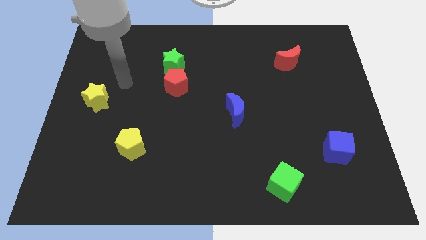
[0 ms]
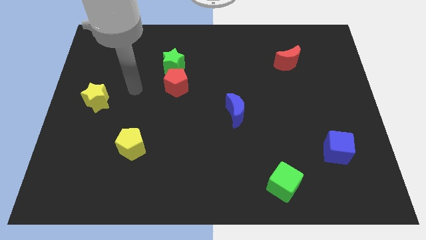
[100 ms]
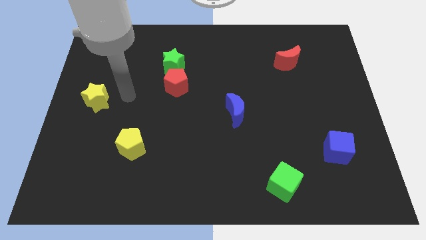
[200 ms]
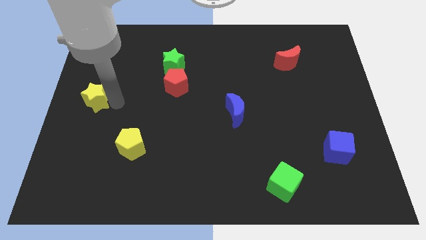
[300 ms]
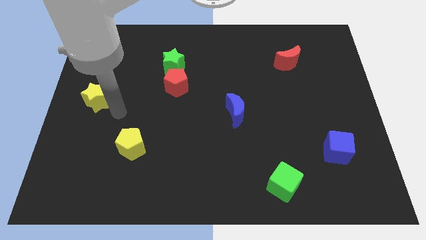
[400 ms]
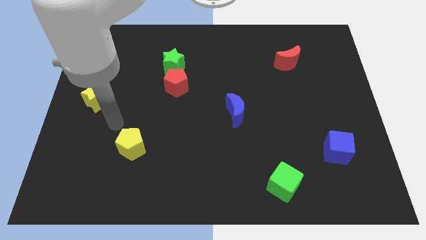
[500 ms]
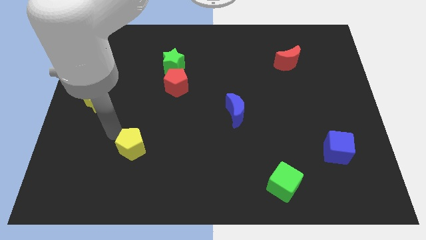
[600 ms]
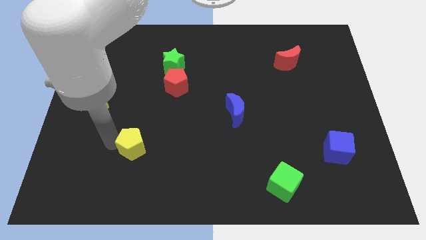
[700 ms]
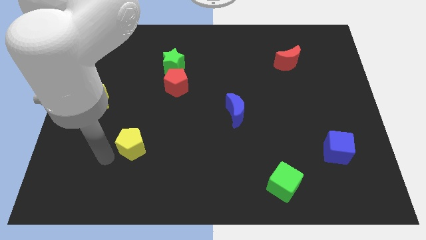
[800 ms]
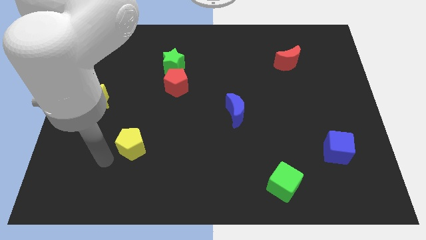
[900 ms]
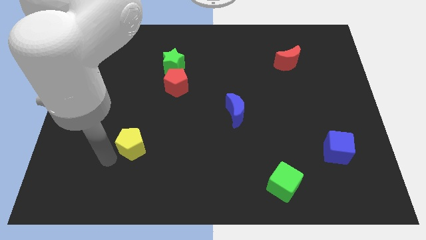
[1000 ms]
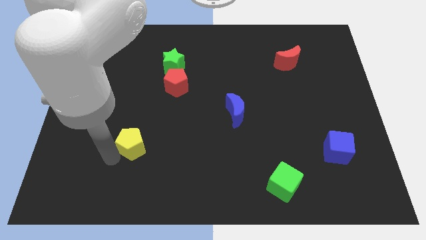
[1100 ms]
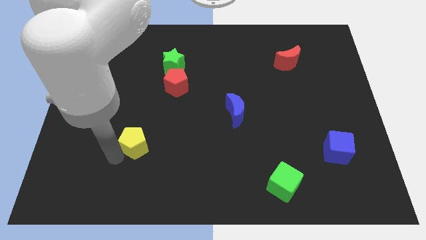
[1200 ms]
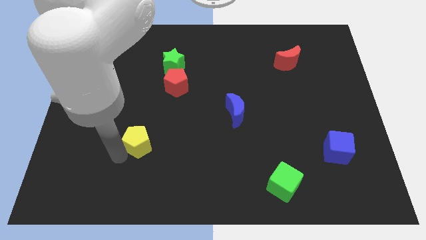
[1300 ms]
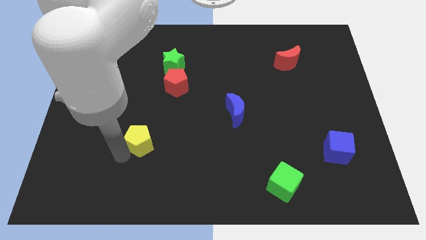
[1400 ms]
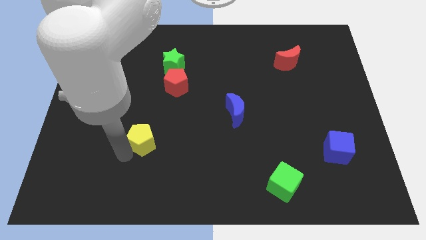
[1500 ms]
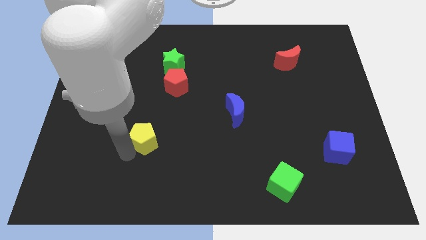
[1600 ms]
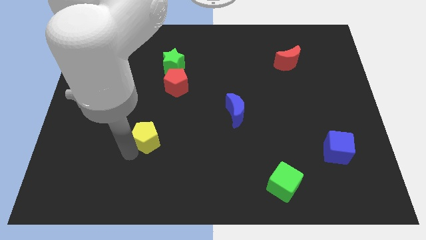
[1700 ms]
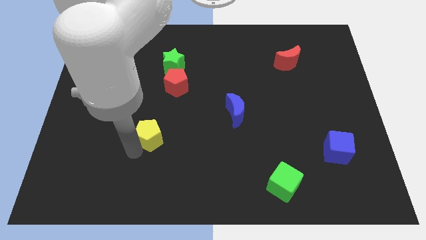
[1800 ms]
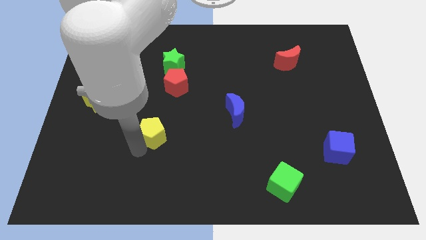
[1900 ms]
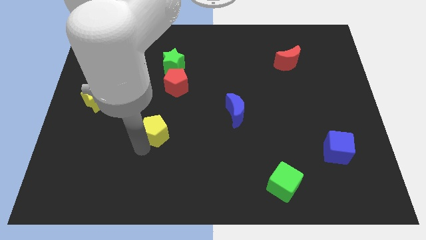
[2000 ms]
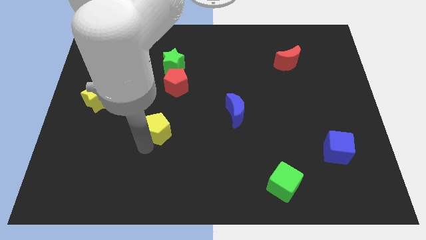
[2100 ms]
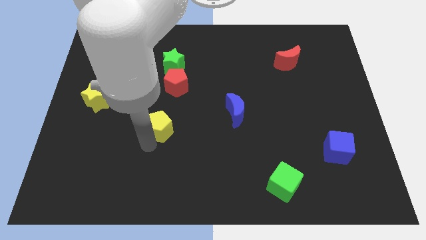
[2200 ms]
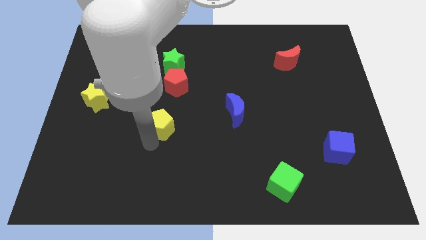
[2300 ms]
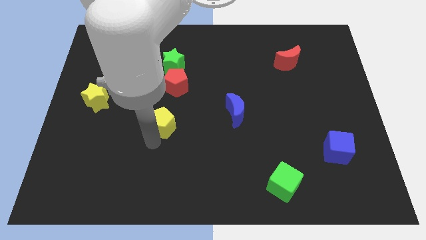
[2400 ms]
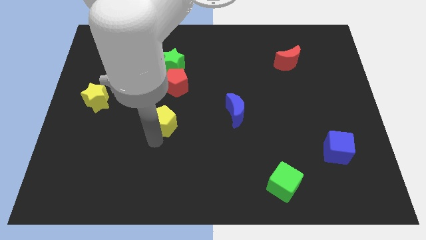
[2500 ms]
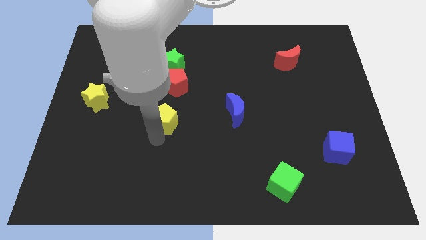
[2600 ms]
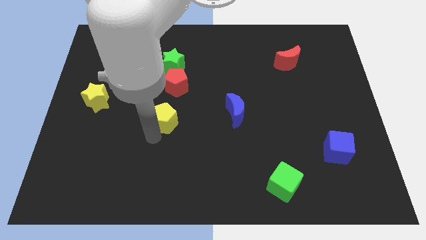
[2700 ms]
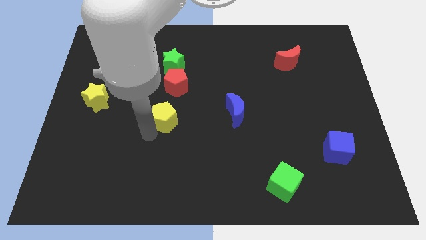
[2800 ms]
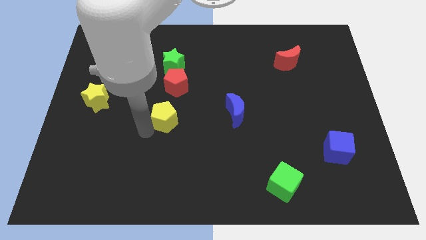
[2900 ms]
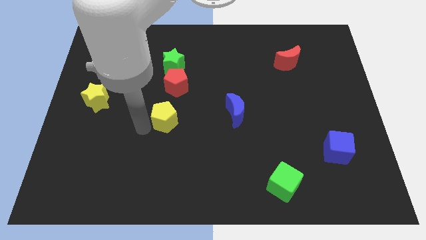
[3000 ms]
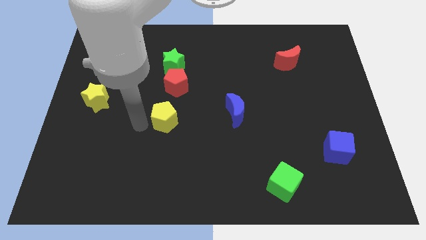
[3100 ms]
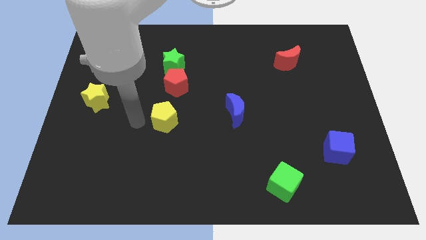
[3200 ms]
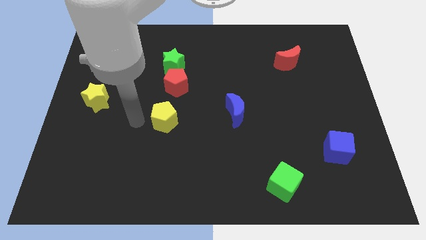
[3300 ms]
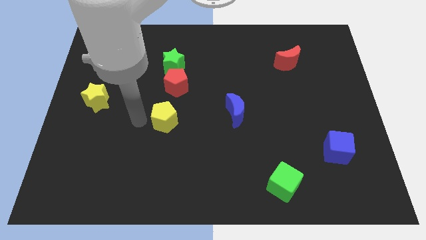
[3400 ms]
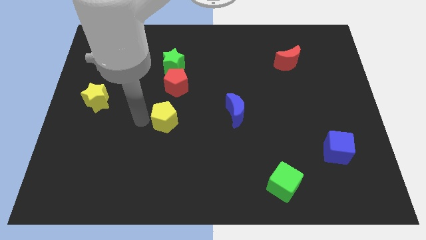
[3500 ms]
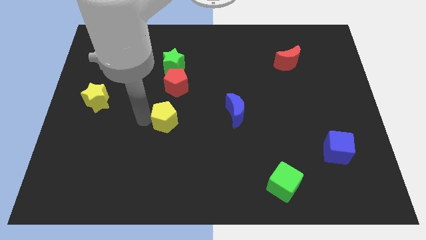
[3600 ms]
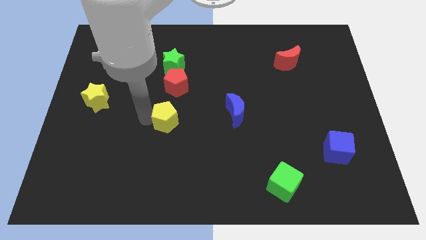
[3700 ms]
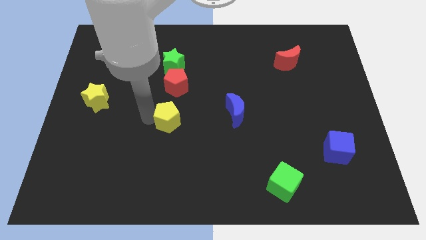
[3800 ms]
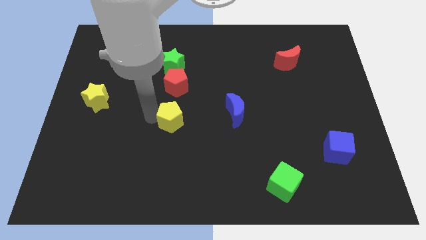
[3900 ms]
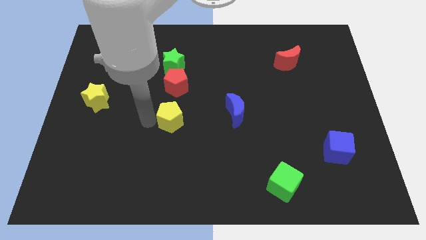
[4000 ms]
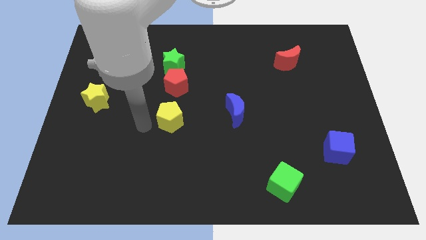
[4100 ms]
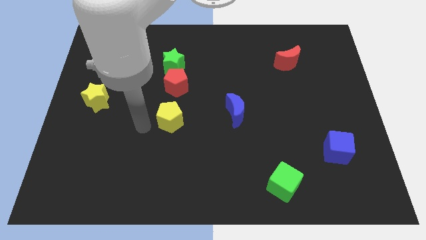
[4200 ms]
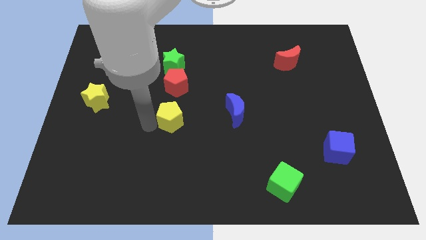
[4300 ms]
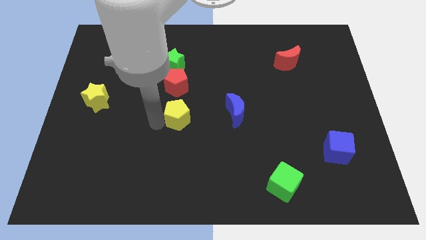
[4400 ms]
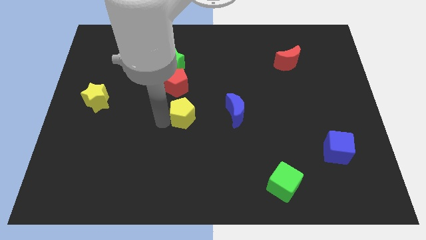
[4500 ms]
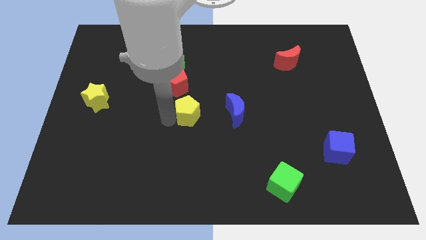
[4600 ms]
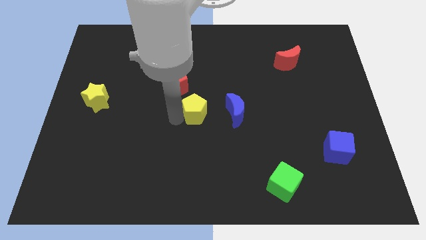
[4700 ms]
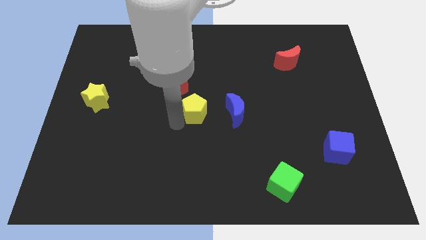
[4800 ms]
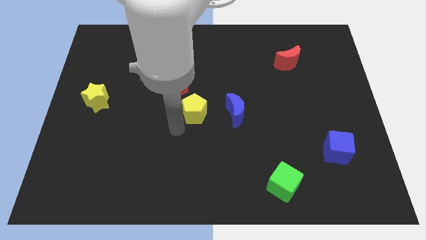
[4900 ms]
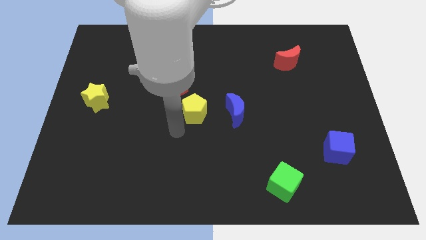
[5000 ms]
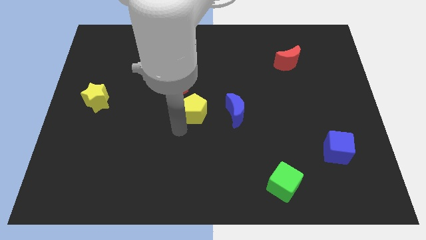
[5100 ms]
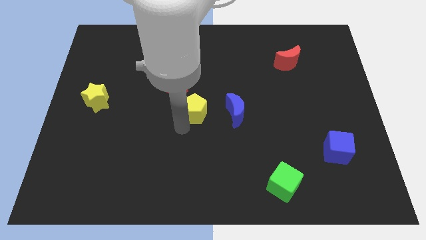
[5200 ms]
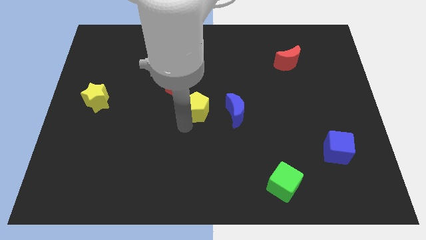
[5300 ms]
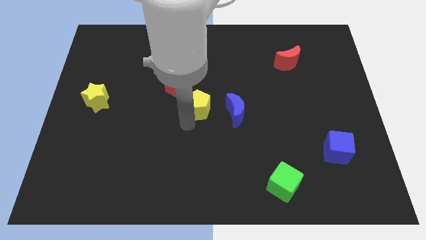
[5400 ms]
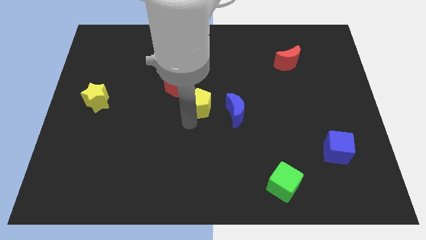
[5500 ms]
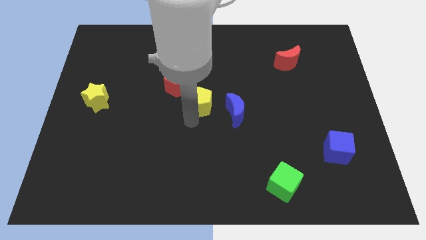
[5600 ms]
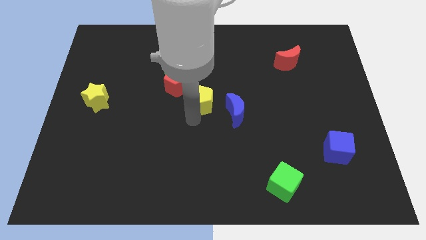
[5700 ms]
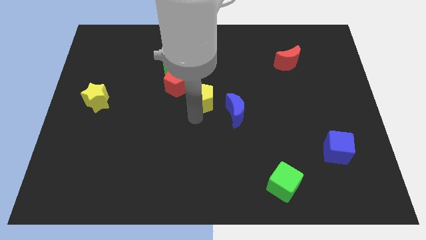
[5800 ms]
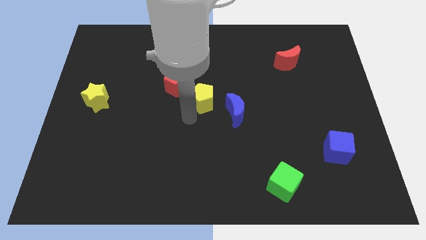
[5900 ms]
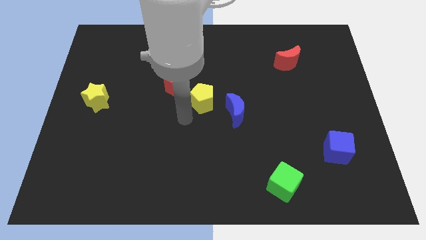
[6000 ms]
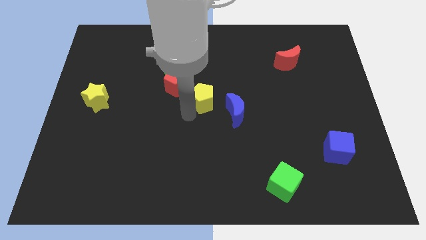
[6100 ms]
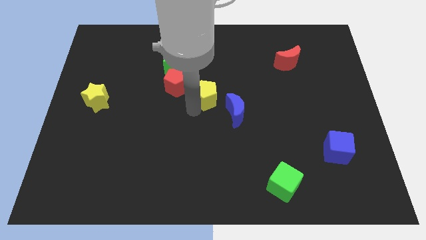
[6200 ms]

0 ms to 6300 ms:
push the yellow pentagon upwards and right

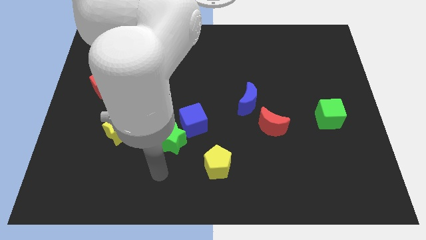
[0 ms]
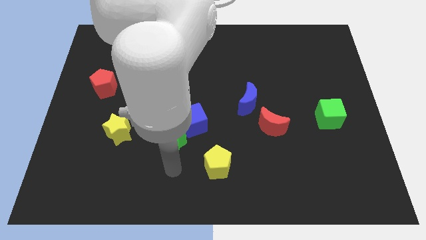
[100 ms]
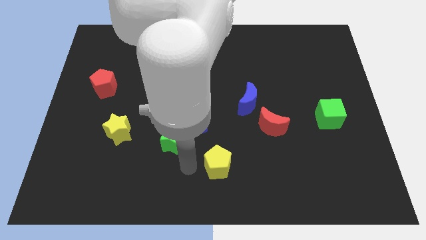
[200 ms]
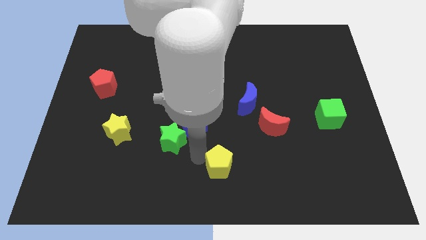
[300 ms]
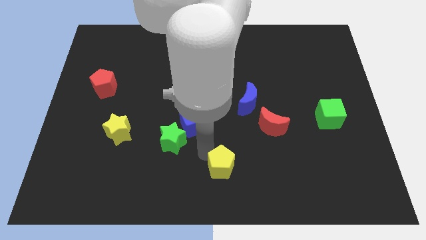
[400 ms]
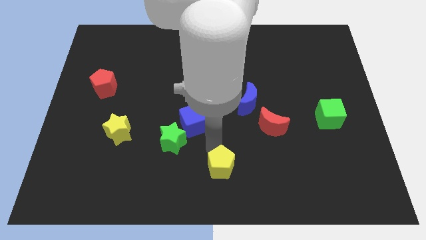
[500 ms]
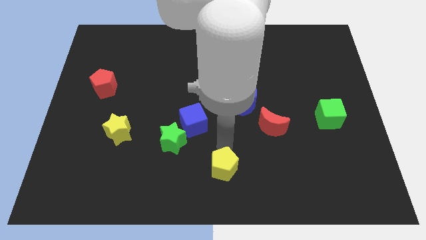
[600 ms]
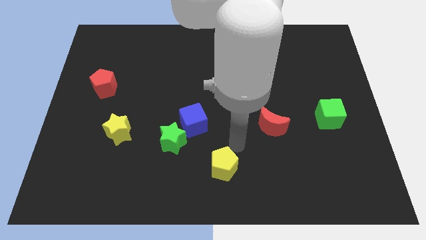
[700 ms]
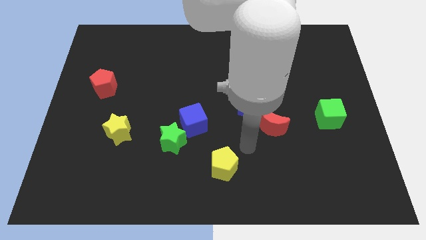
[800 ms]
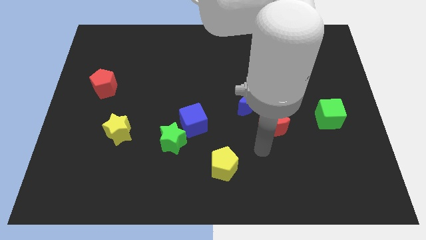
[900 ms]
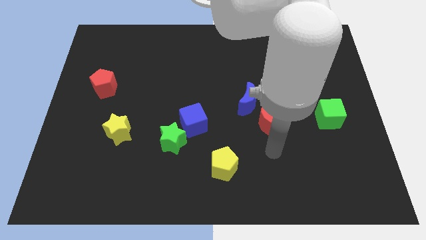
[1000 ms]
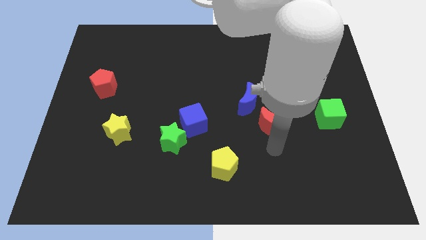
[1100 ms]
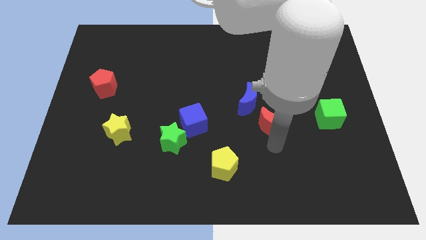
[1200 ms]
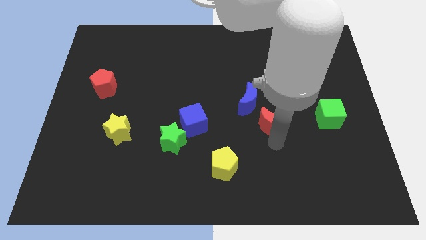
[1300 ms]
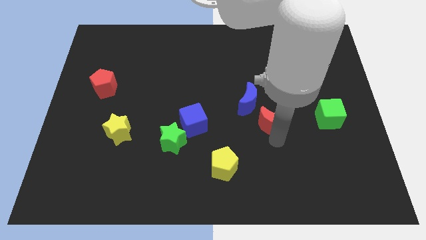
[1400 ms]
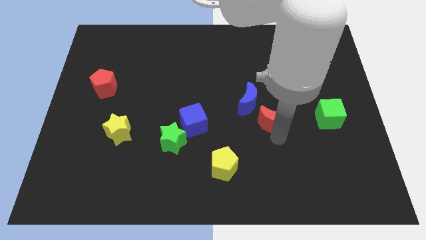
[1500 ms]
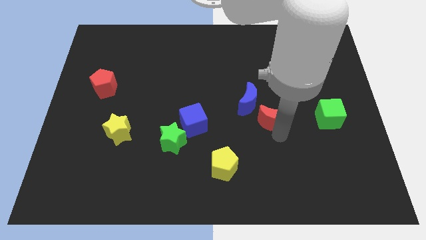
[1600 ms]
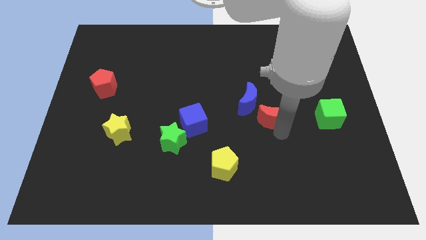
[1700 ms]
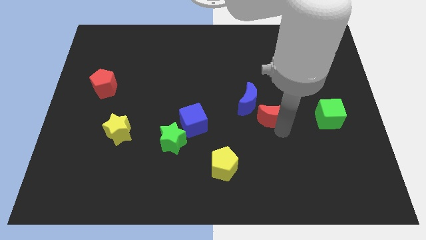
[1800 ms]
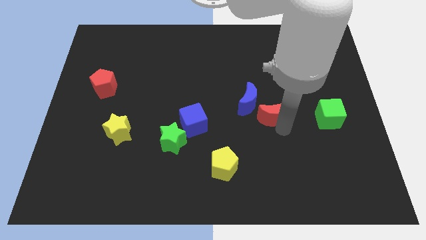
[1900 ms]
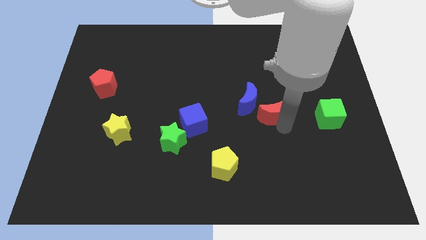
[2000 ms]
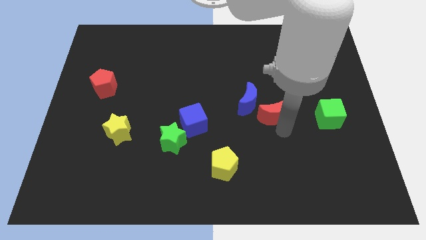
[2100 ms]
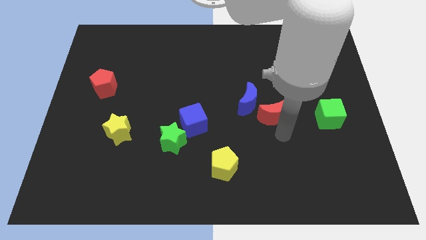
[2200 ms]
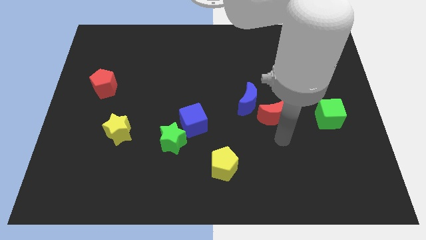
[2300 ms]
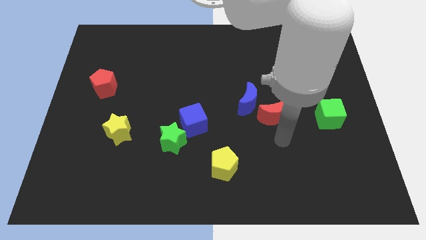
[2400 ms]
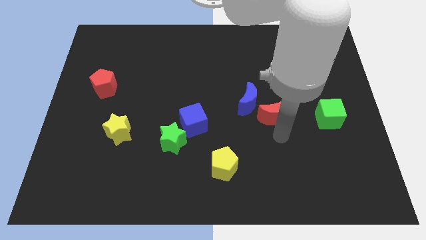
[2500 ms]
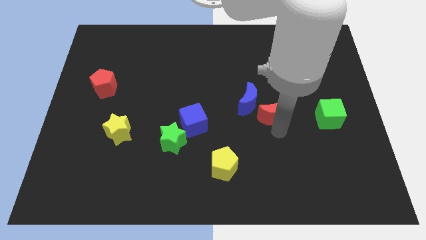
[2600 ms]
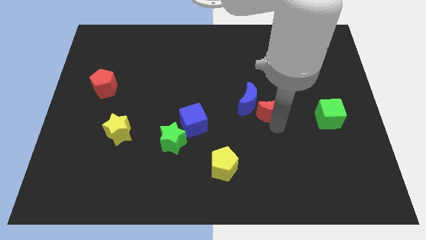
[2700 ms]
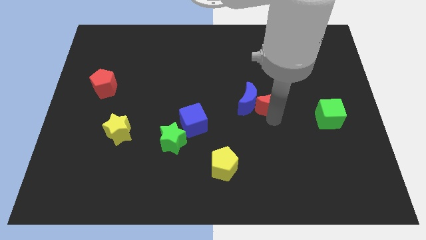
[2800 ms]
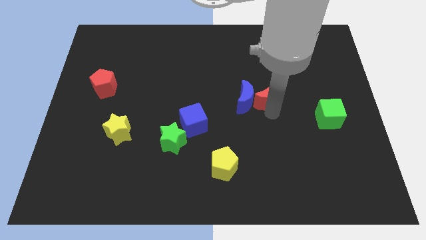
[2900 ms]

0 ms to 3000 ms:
slightly slide the red moon upwards
